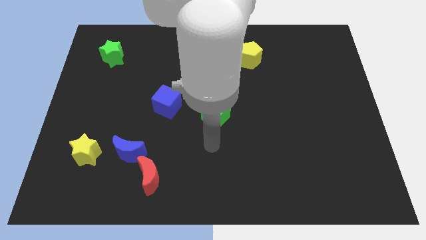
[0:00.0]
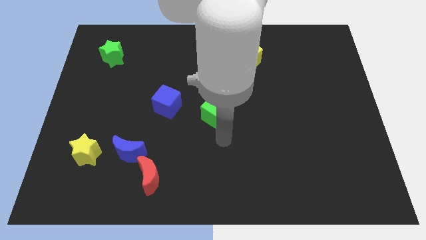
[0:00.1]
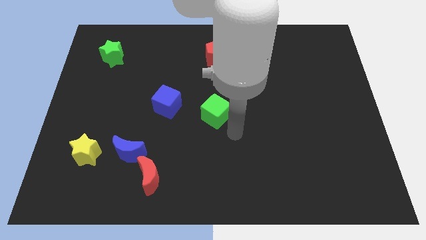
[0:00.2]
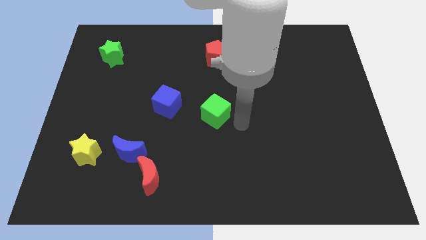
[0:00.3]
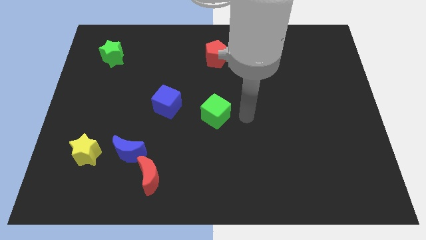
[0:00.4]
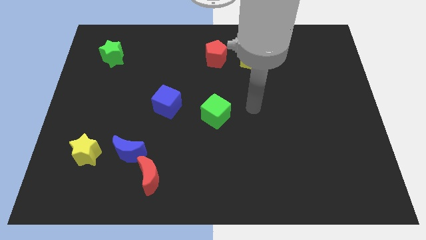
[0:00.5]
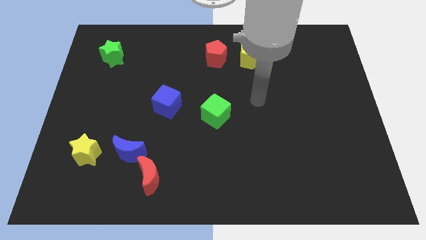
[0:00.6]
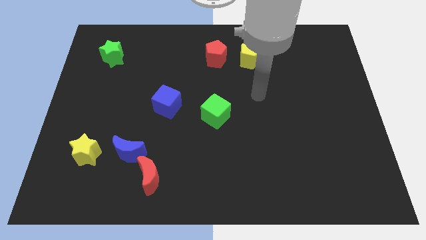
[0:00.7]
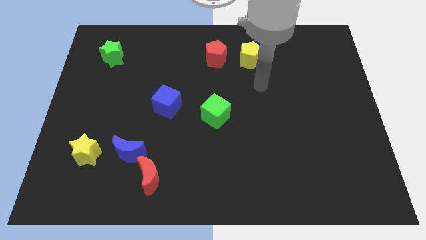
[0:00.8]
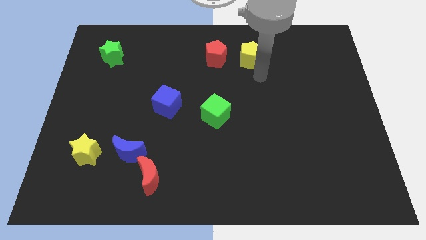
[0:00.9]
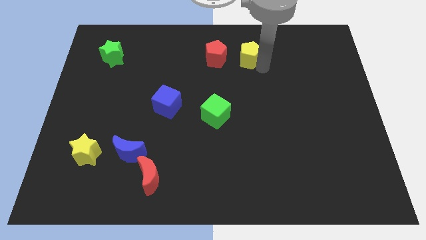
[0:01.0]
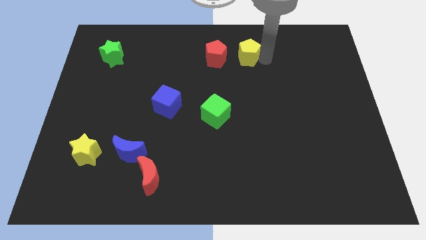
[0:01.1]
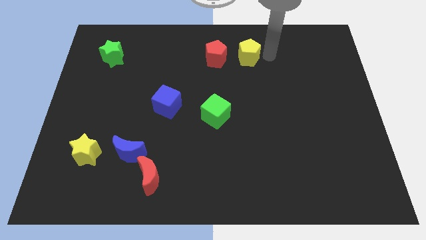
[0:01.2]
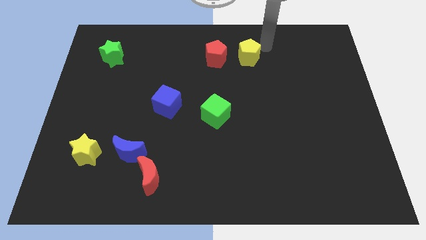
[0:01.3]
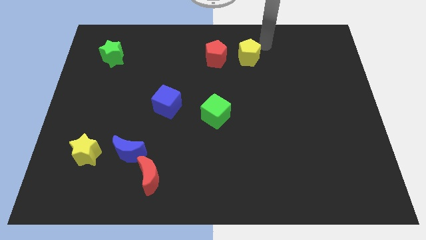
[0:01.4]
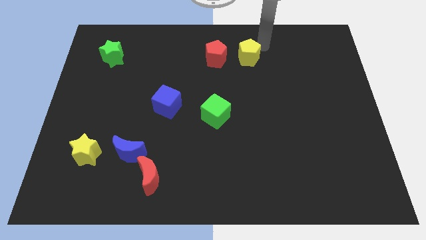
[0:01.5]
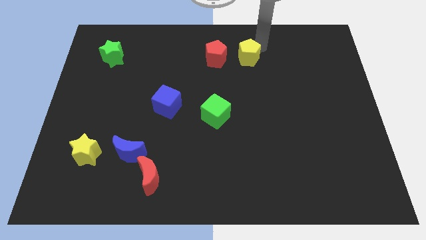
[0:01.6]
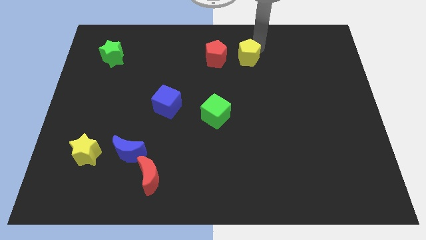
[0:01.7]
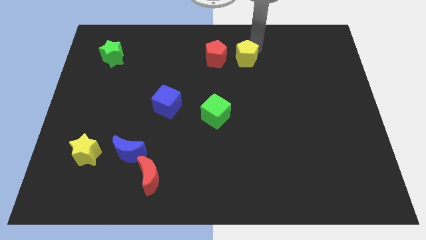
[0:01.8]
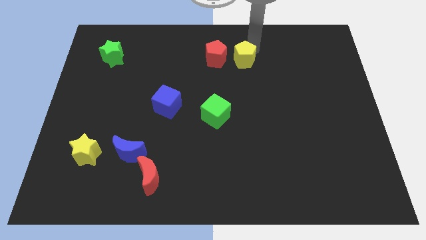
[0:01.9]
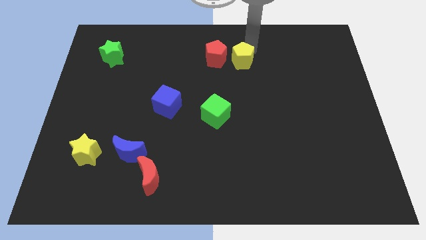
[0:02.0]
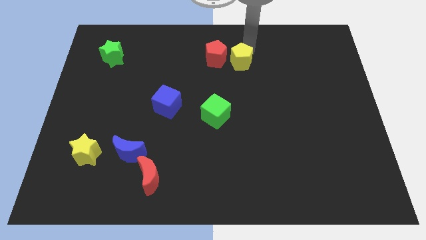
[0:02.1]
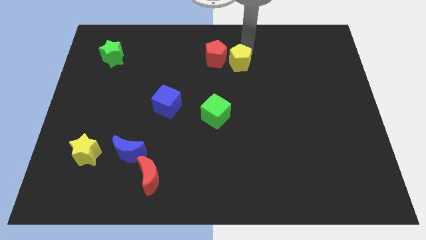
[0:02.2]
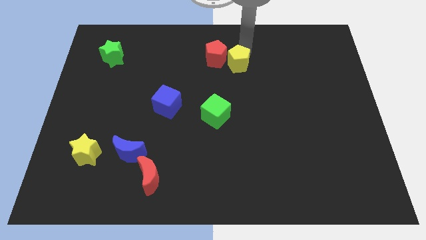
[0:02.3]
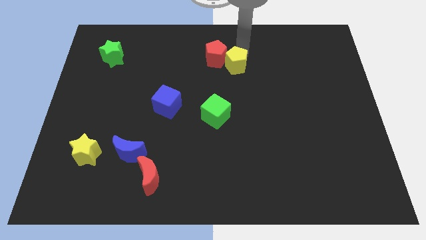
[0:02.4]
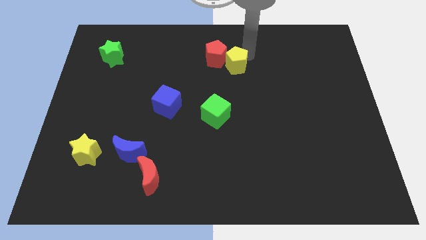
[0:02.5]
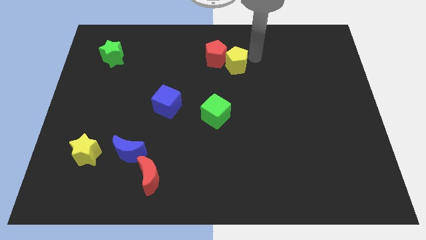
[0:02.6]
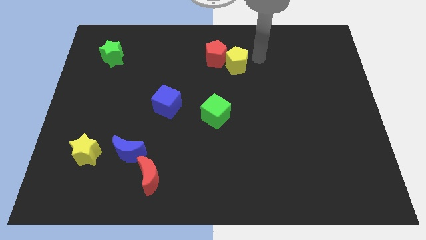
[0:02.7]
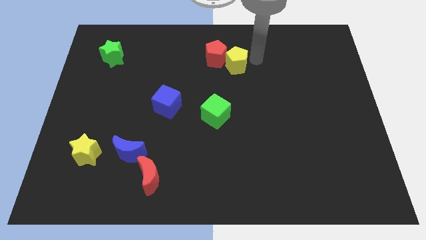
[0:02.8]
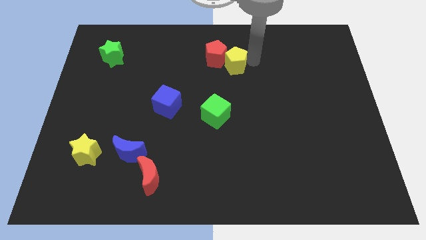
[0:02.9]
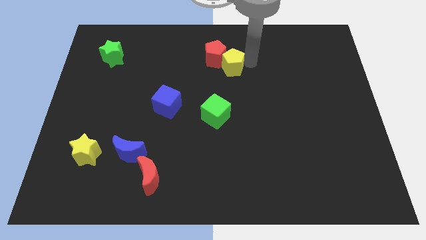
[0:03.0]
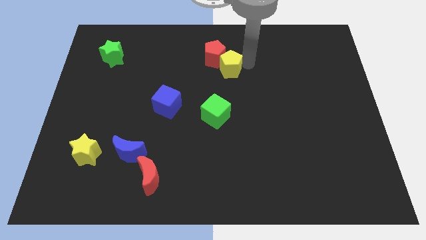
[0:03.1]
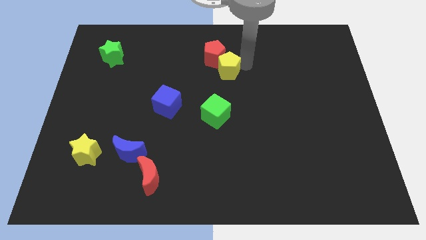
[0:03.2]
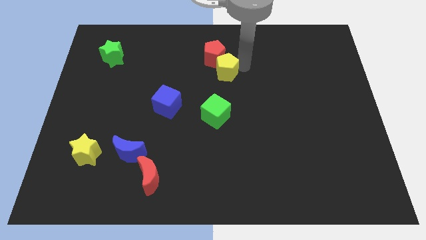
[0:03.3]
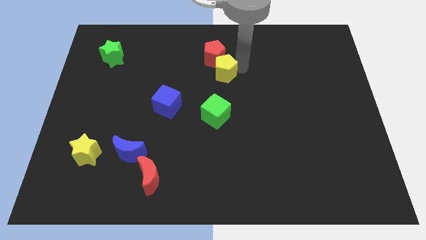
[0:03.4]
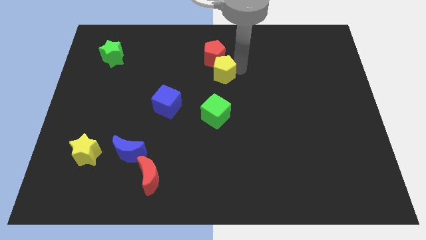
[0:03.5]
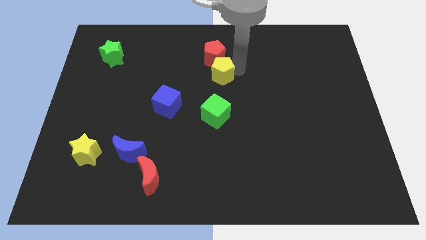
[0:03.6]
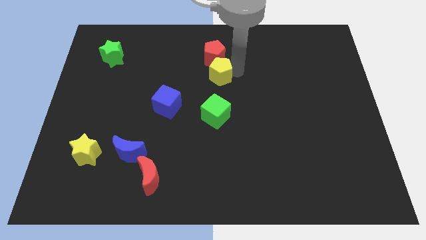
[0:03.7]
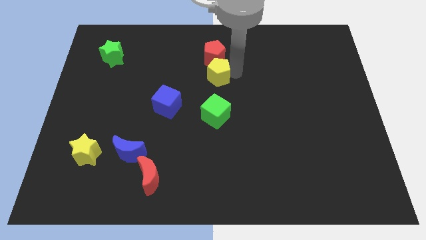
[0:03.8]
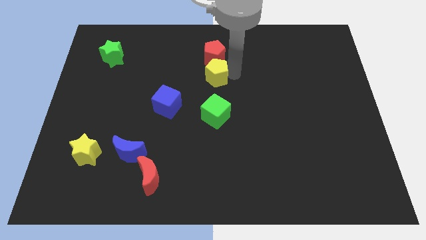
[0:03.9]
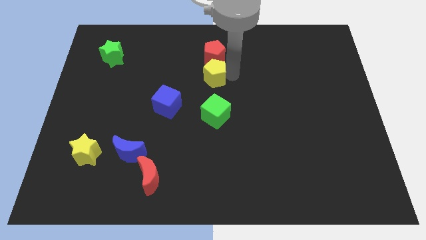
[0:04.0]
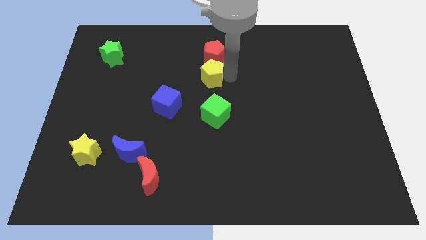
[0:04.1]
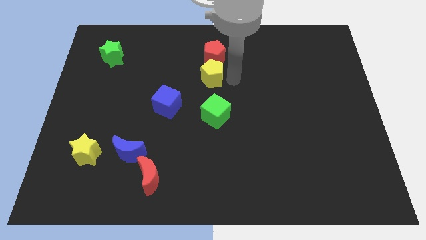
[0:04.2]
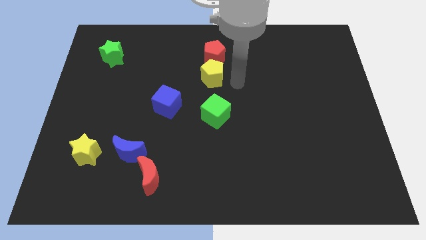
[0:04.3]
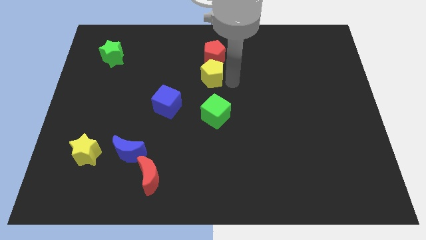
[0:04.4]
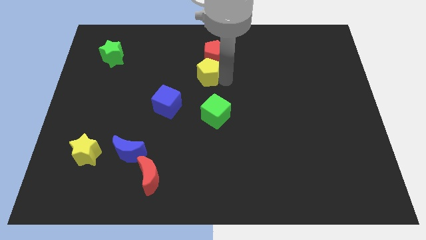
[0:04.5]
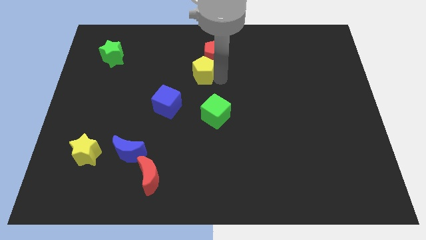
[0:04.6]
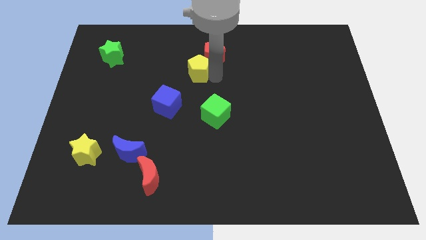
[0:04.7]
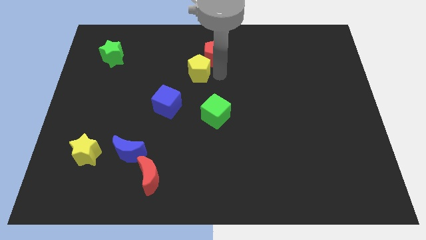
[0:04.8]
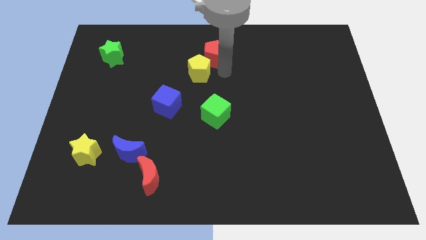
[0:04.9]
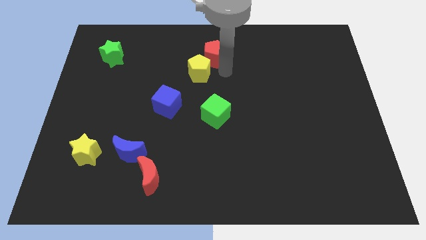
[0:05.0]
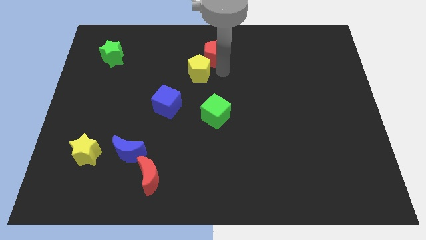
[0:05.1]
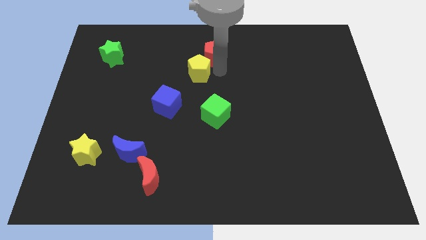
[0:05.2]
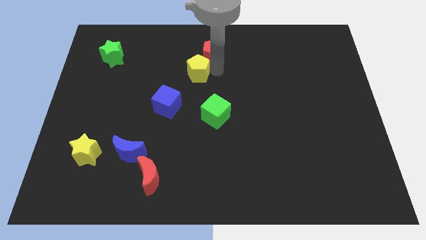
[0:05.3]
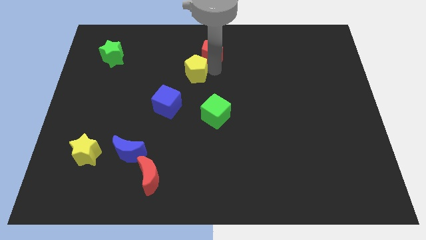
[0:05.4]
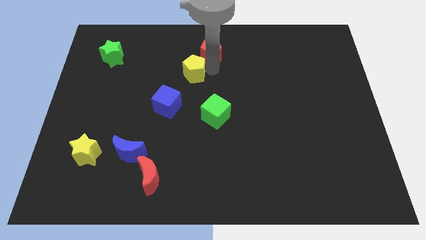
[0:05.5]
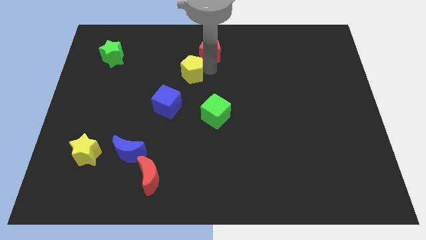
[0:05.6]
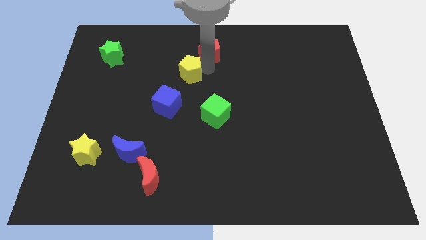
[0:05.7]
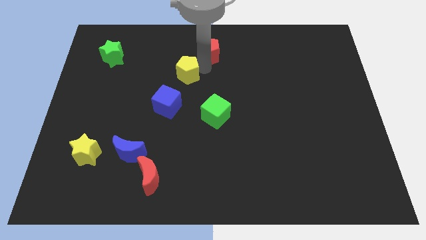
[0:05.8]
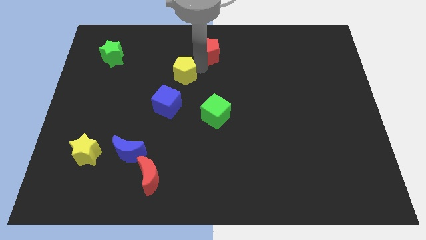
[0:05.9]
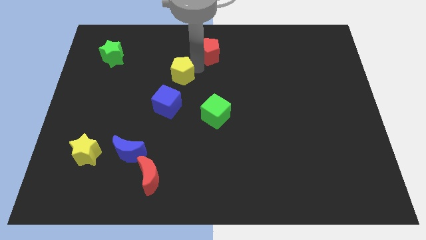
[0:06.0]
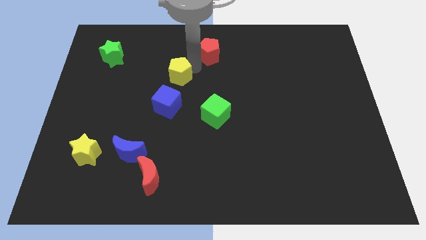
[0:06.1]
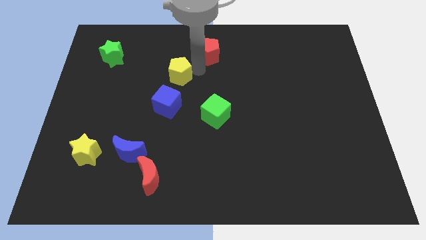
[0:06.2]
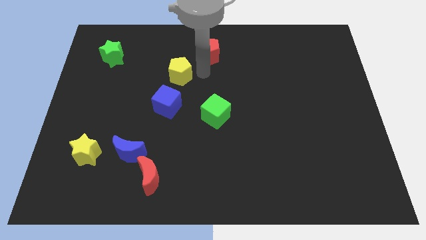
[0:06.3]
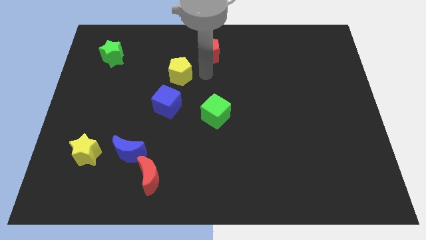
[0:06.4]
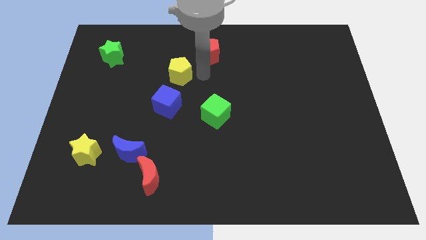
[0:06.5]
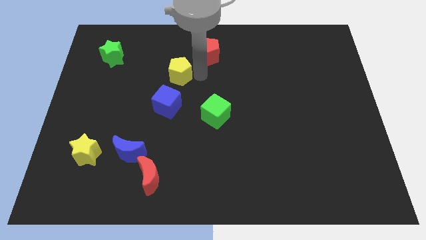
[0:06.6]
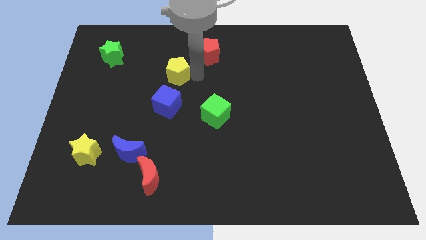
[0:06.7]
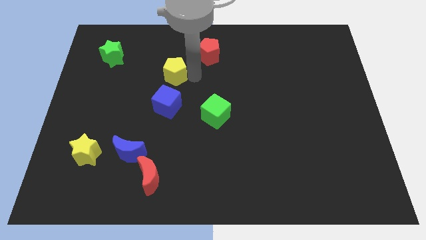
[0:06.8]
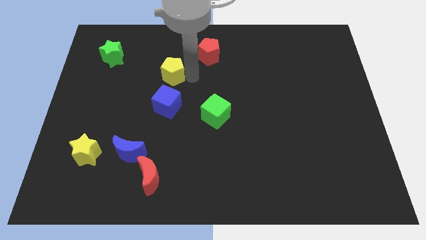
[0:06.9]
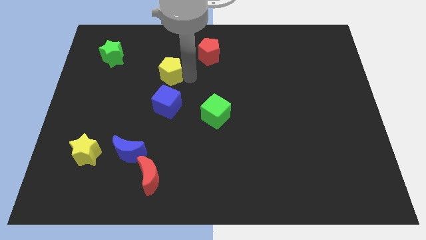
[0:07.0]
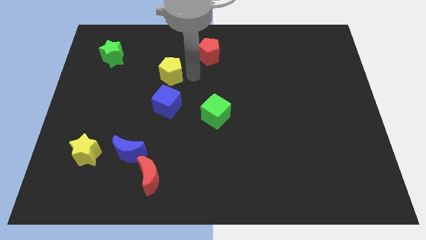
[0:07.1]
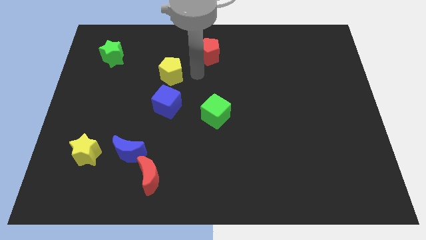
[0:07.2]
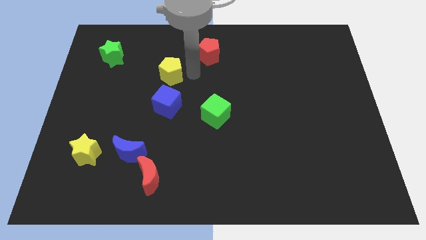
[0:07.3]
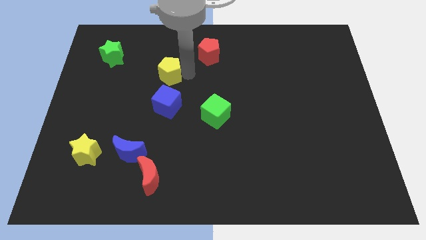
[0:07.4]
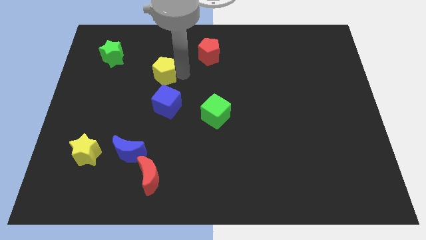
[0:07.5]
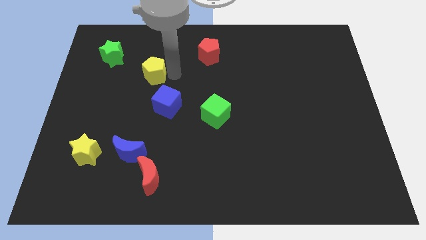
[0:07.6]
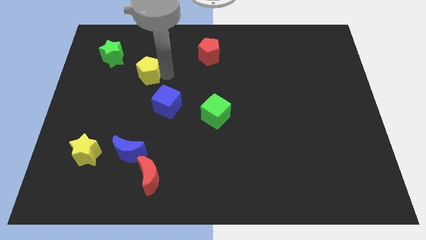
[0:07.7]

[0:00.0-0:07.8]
slide the yellow pentagon to the bottom right side of the green star
